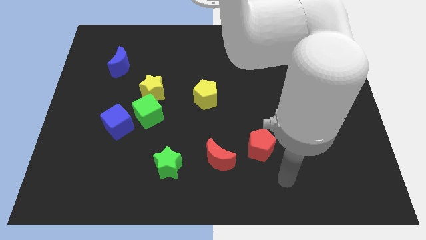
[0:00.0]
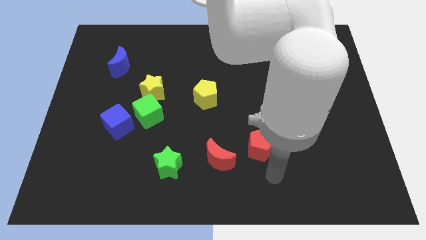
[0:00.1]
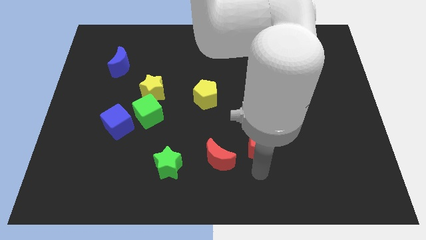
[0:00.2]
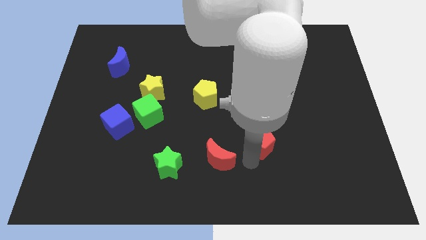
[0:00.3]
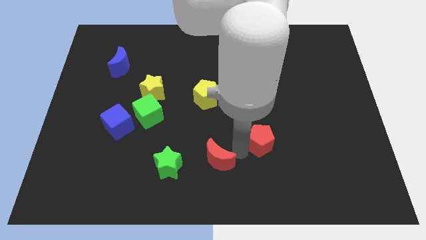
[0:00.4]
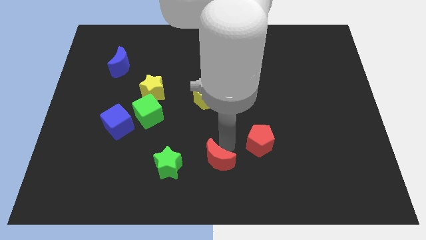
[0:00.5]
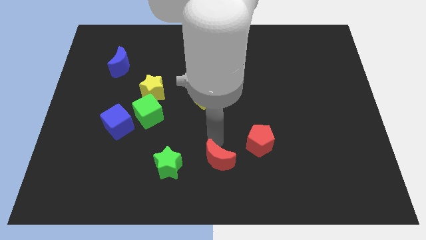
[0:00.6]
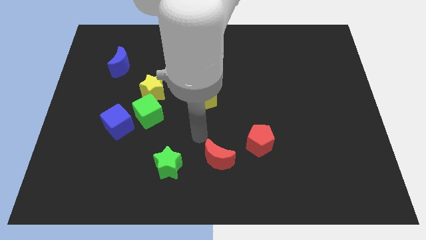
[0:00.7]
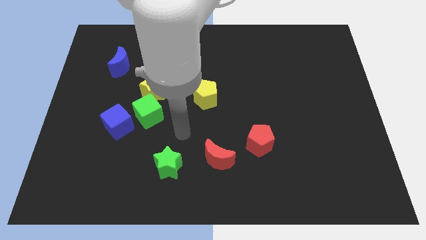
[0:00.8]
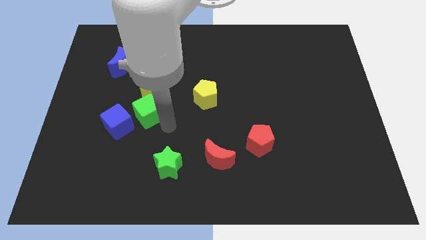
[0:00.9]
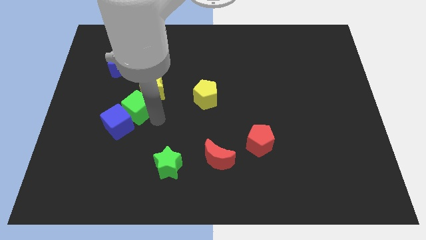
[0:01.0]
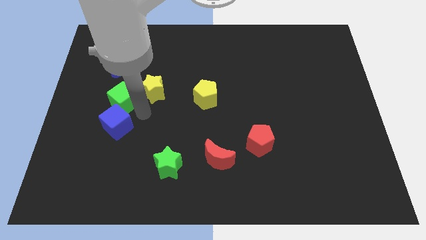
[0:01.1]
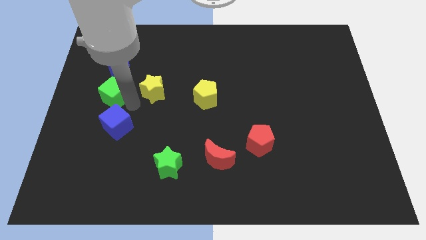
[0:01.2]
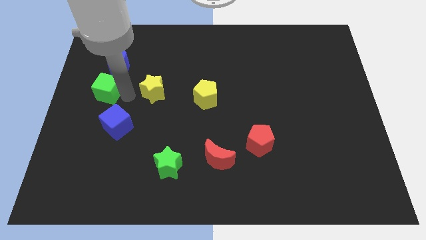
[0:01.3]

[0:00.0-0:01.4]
separate the yellow star from the green cube

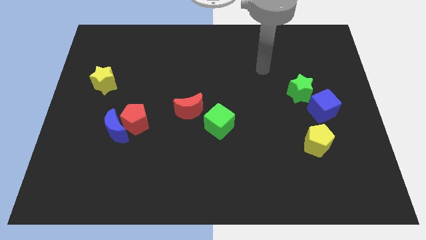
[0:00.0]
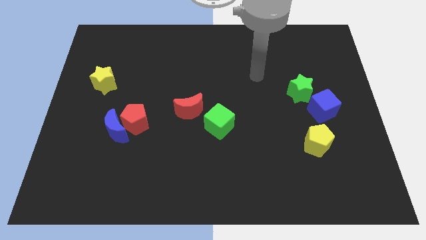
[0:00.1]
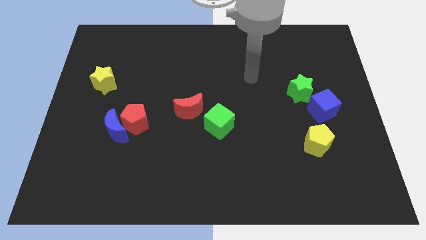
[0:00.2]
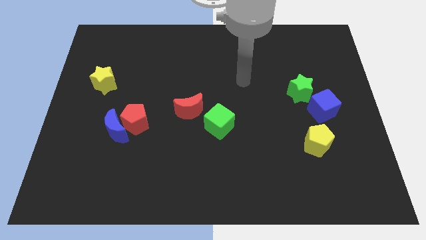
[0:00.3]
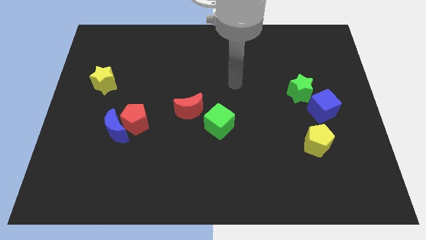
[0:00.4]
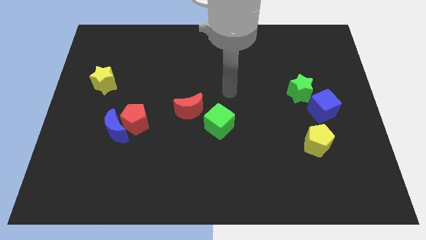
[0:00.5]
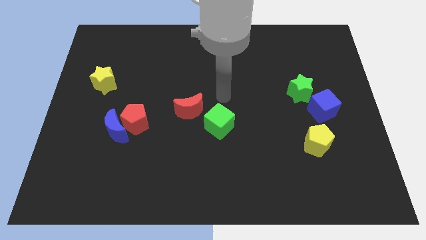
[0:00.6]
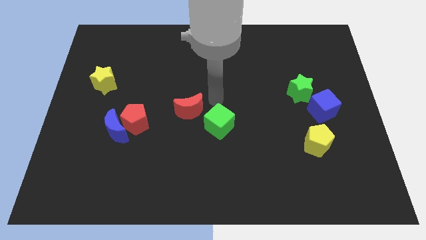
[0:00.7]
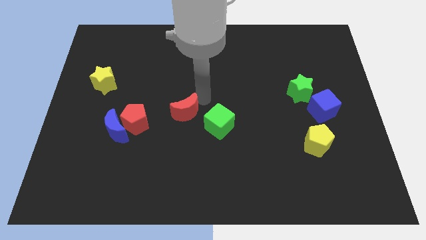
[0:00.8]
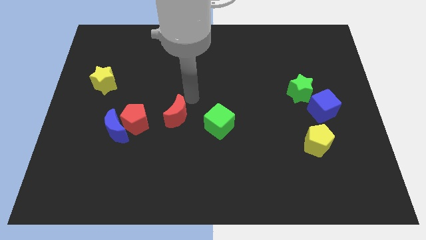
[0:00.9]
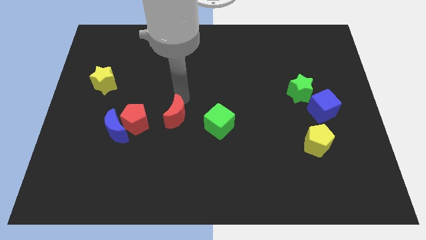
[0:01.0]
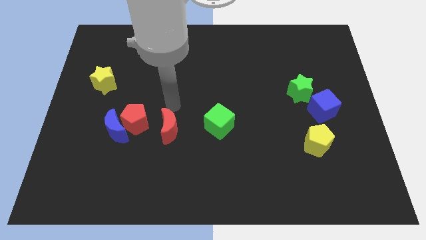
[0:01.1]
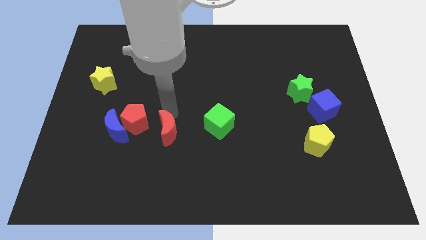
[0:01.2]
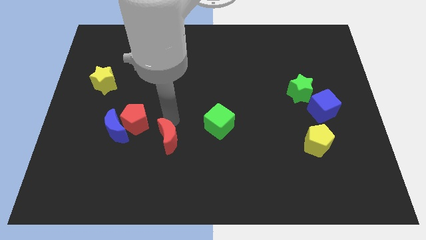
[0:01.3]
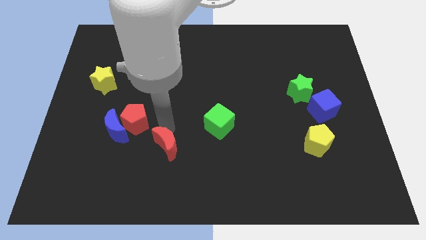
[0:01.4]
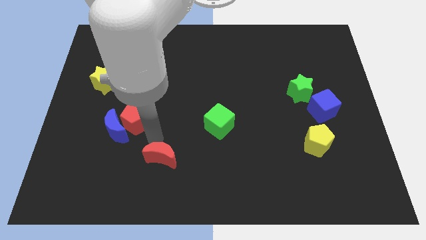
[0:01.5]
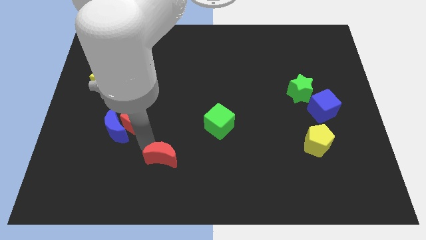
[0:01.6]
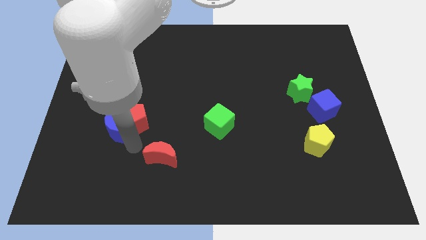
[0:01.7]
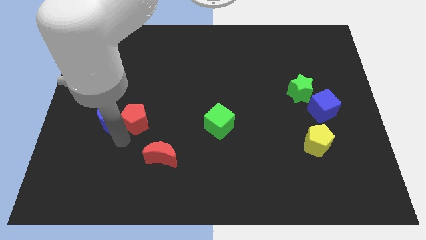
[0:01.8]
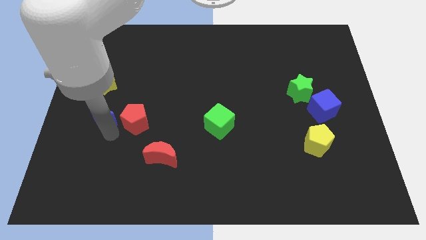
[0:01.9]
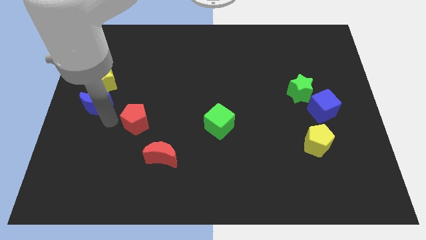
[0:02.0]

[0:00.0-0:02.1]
separate the red pentagon from the blue moon

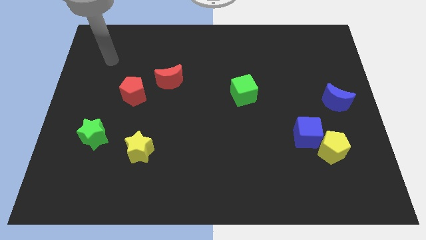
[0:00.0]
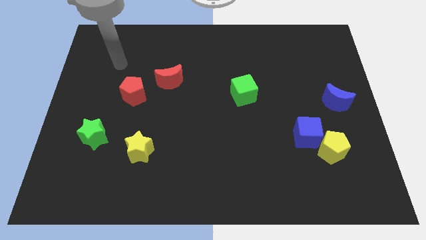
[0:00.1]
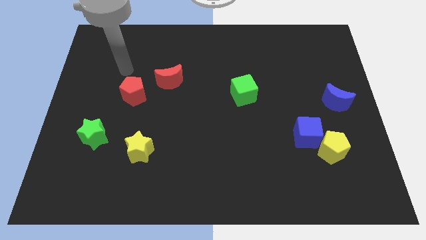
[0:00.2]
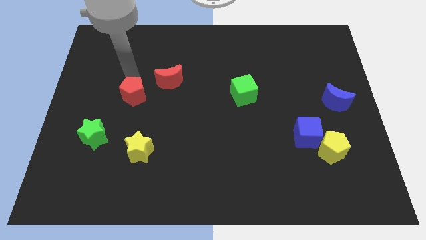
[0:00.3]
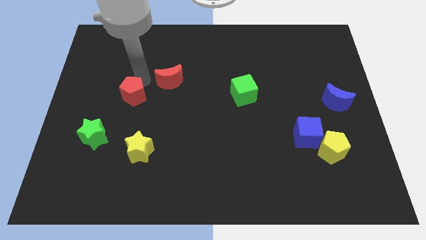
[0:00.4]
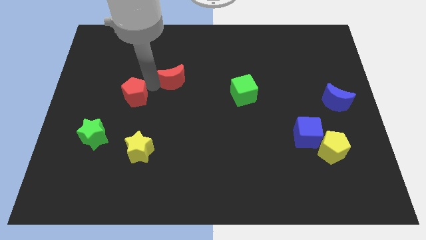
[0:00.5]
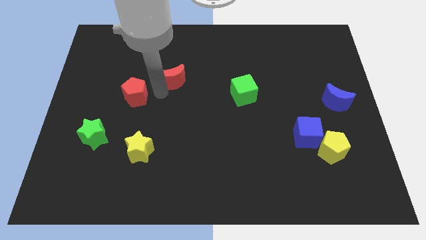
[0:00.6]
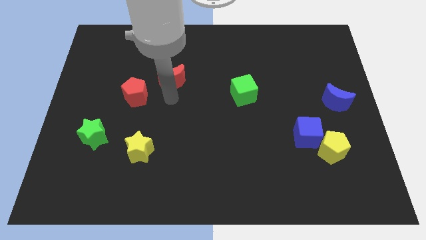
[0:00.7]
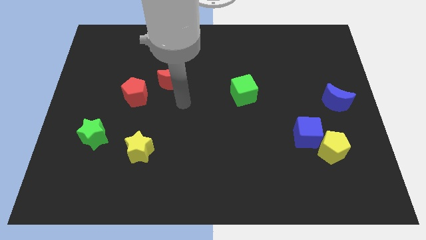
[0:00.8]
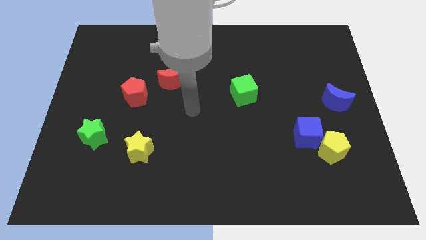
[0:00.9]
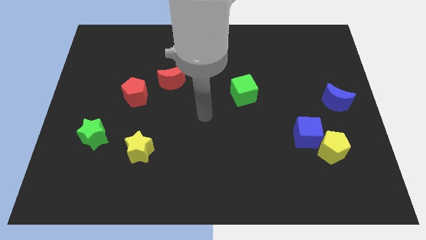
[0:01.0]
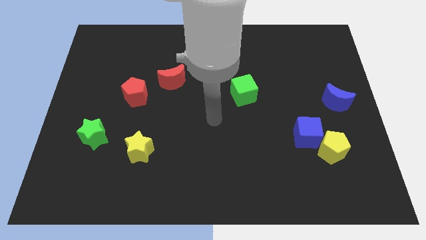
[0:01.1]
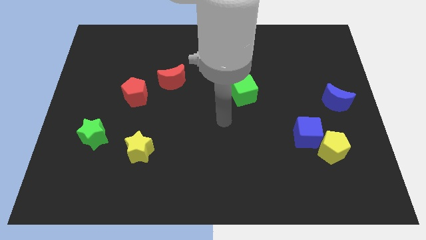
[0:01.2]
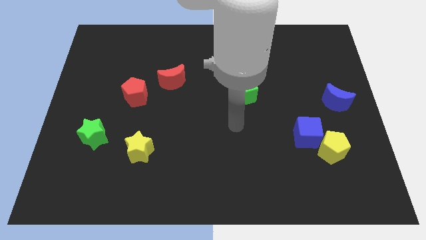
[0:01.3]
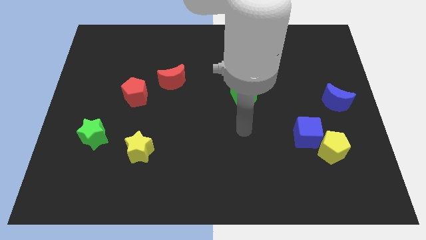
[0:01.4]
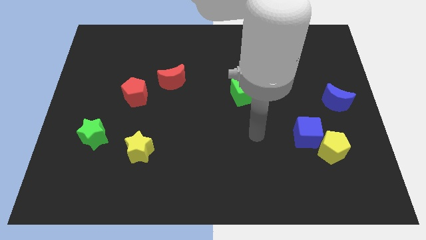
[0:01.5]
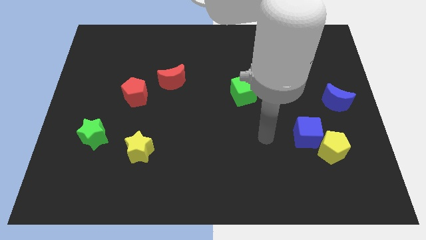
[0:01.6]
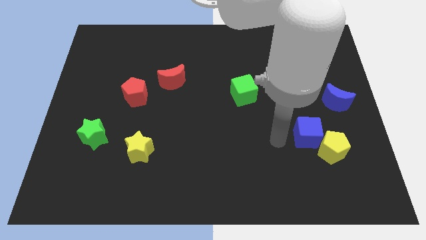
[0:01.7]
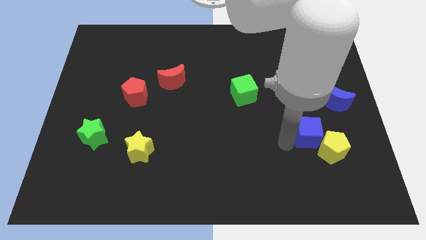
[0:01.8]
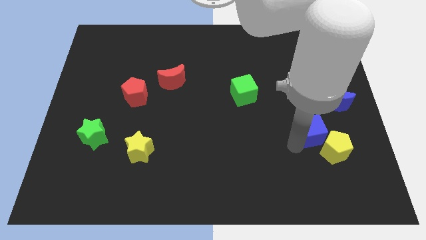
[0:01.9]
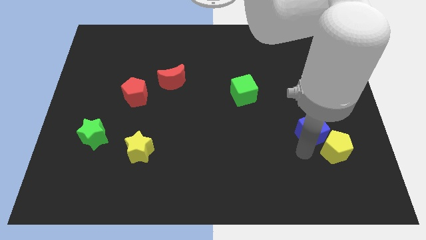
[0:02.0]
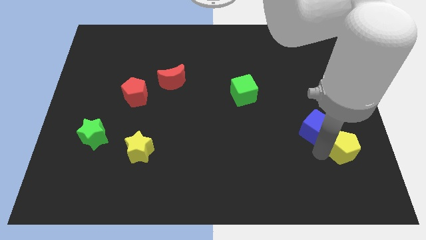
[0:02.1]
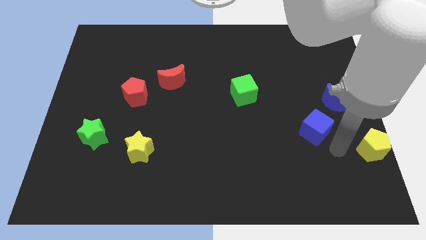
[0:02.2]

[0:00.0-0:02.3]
pull the blue cube apart from the yellow pentagon

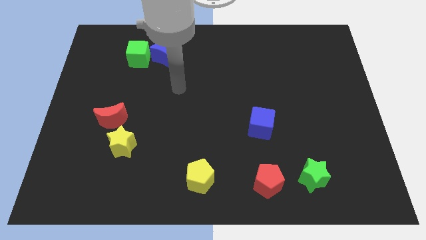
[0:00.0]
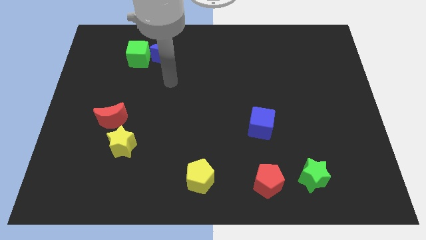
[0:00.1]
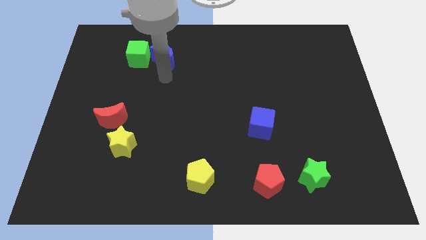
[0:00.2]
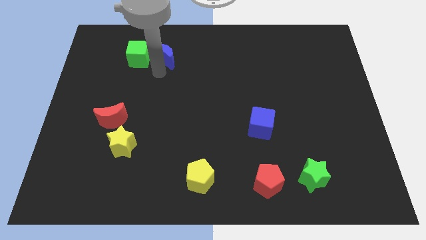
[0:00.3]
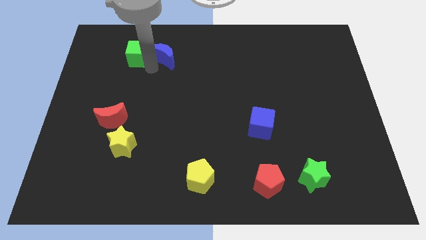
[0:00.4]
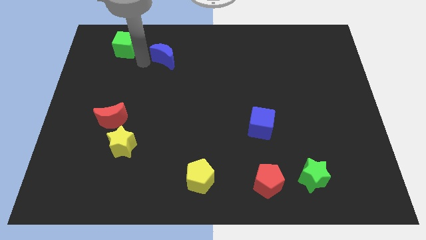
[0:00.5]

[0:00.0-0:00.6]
separate the blue moon from the green cube

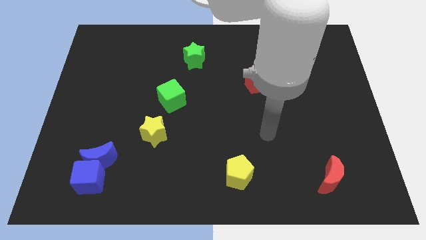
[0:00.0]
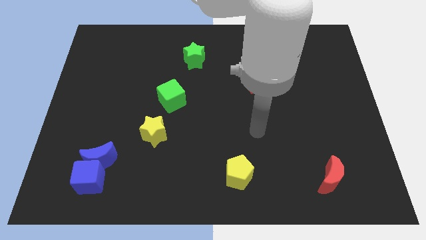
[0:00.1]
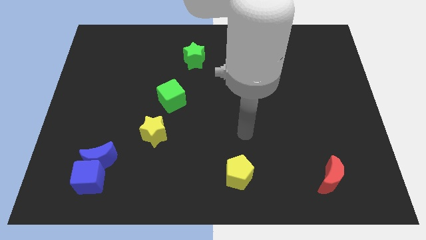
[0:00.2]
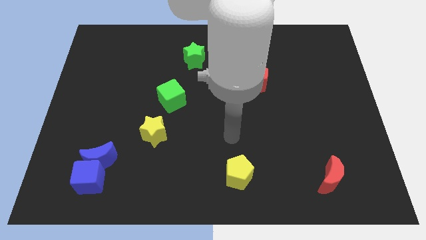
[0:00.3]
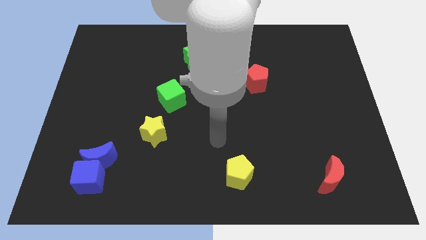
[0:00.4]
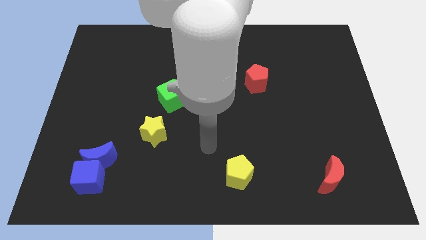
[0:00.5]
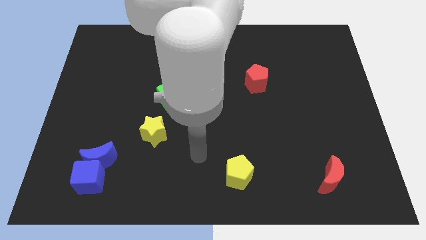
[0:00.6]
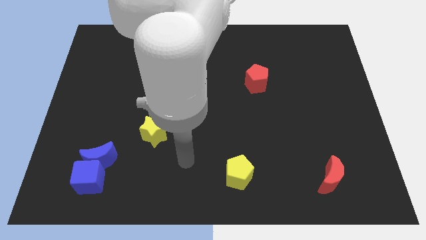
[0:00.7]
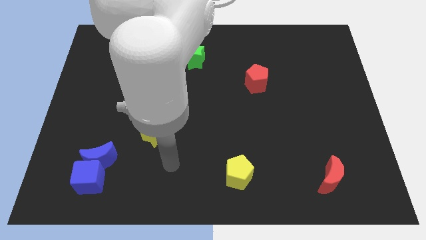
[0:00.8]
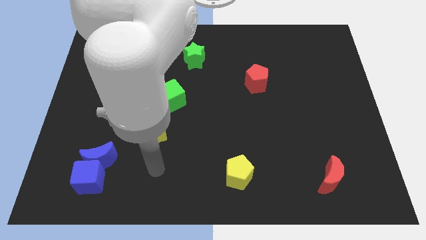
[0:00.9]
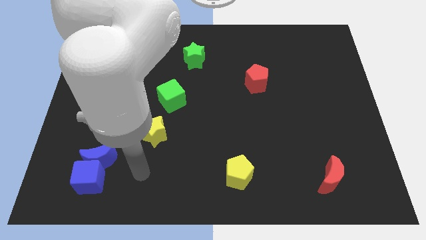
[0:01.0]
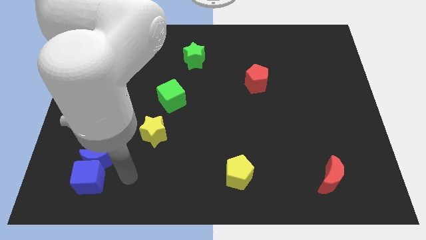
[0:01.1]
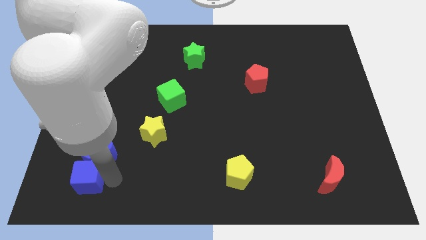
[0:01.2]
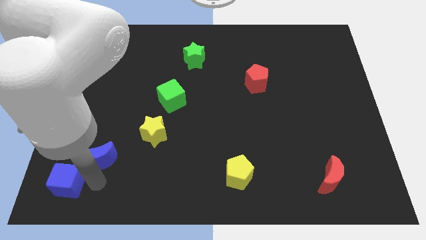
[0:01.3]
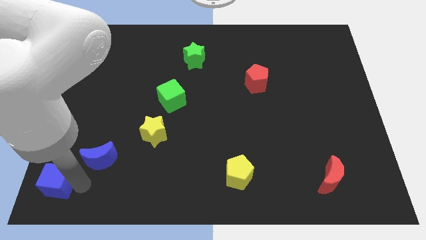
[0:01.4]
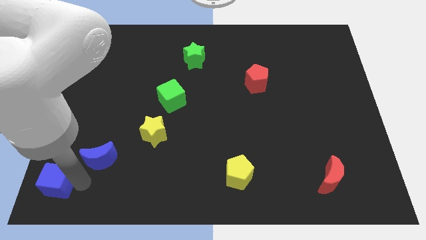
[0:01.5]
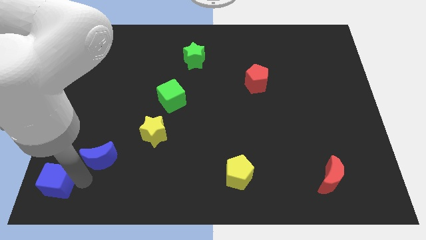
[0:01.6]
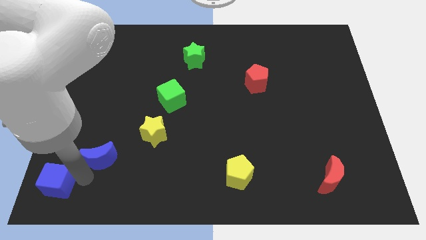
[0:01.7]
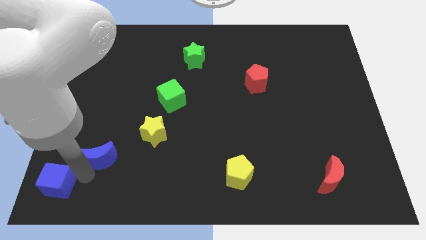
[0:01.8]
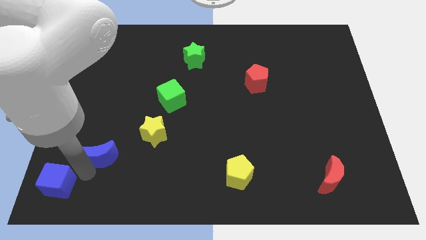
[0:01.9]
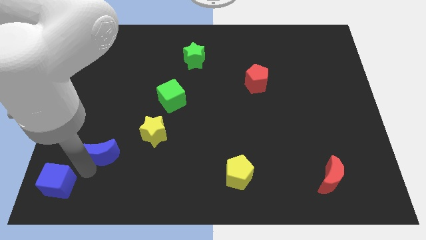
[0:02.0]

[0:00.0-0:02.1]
separate the blue moon from the blue cube

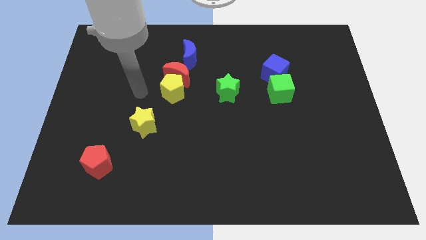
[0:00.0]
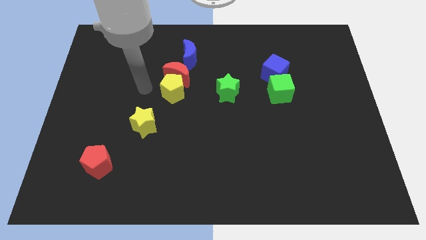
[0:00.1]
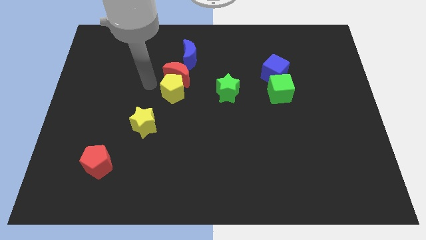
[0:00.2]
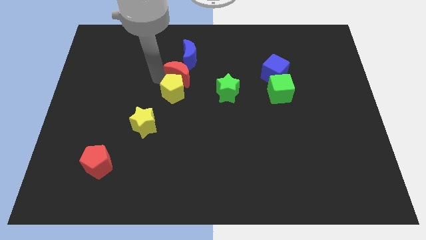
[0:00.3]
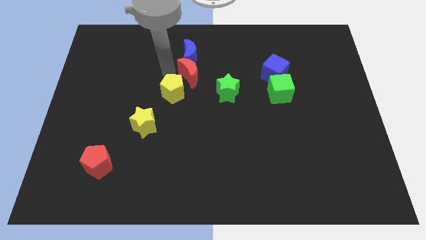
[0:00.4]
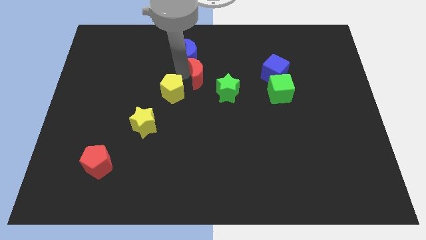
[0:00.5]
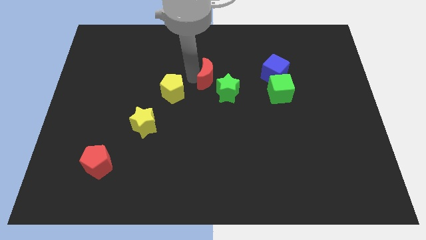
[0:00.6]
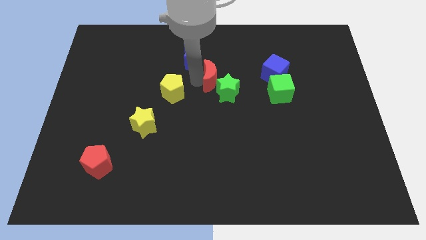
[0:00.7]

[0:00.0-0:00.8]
separate the yellow pentagon from the red moon
